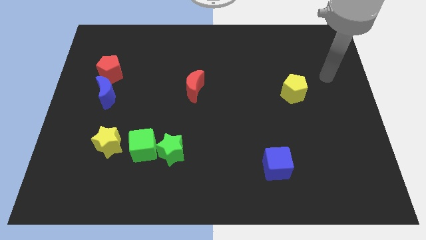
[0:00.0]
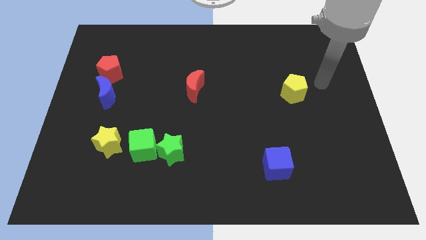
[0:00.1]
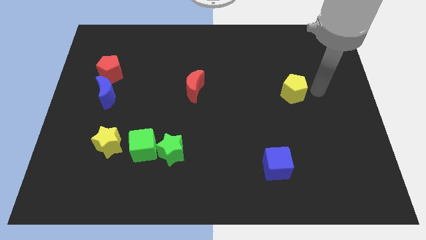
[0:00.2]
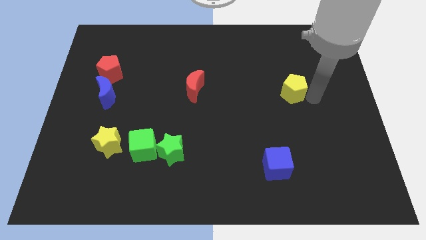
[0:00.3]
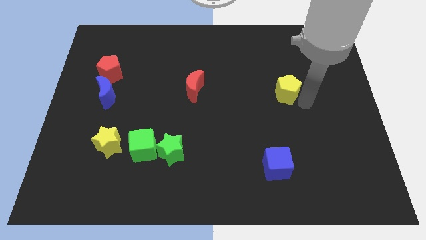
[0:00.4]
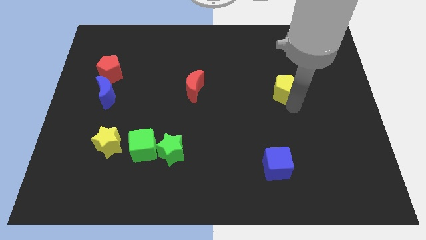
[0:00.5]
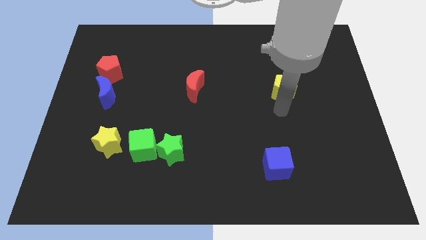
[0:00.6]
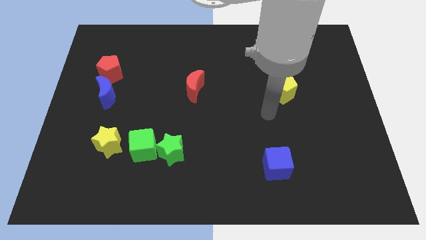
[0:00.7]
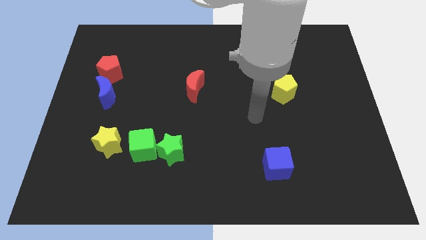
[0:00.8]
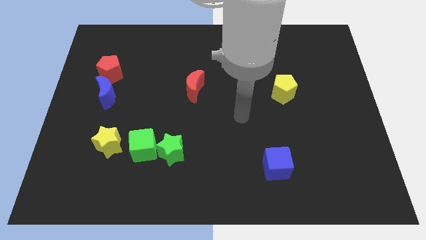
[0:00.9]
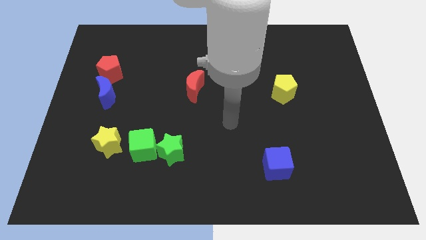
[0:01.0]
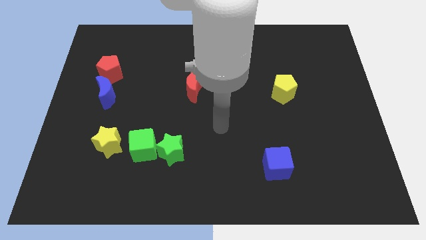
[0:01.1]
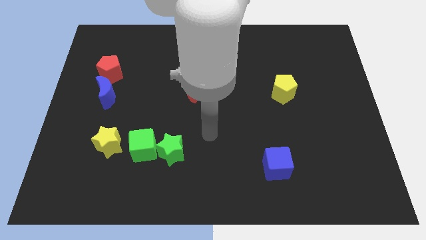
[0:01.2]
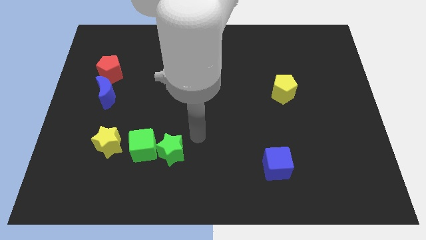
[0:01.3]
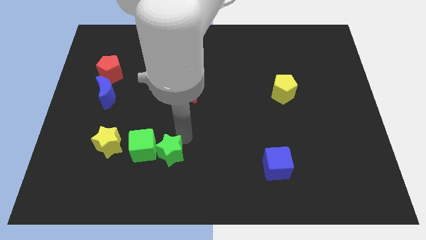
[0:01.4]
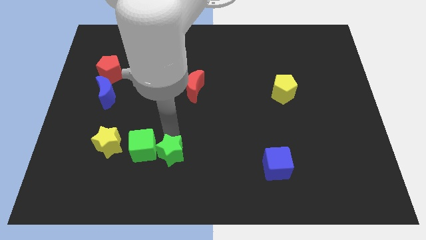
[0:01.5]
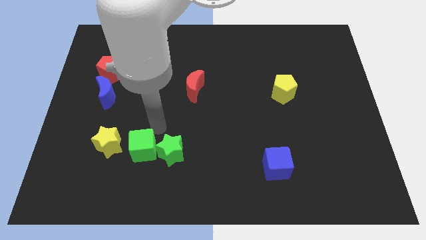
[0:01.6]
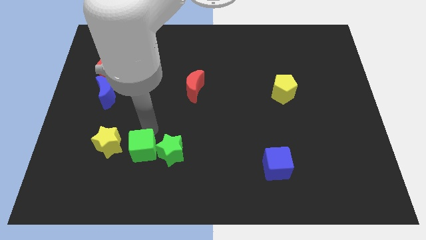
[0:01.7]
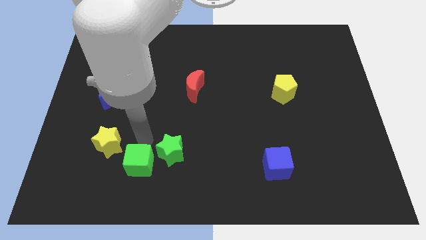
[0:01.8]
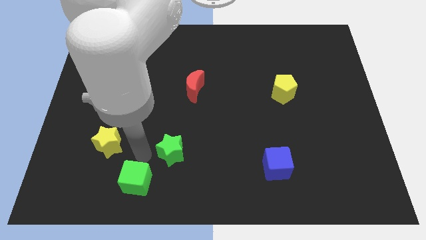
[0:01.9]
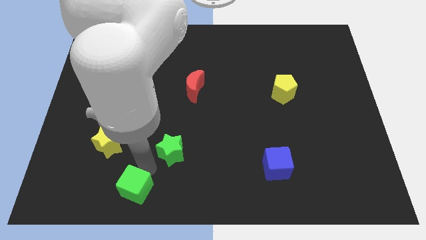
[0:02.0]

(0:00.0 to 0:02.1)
pull the green star apart from the green cube

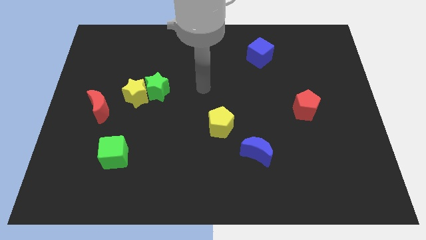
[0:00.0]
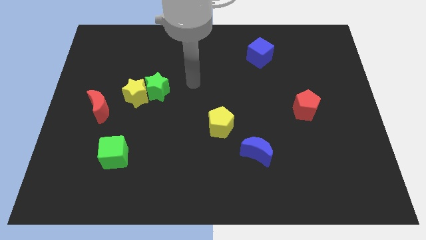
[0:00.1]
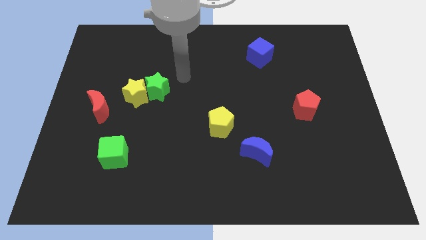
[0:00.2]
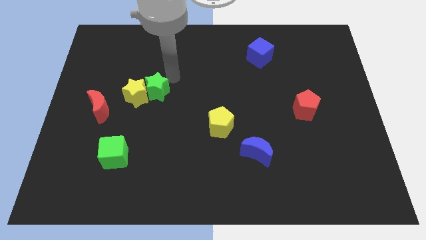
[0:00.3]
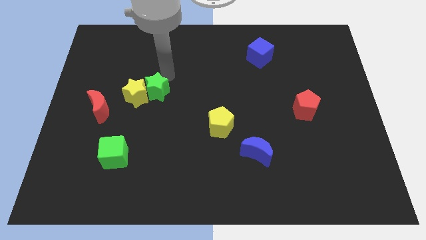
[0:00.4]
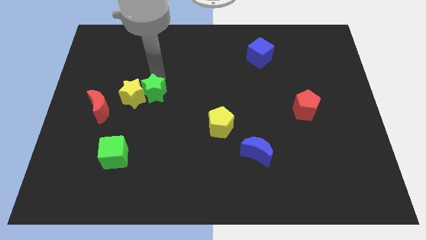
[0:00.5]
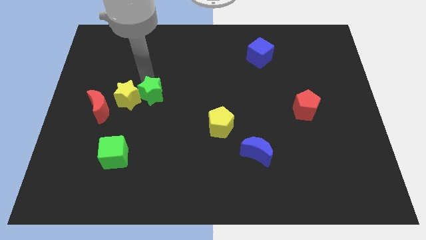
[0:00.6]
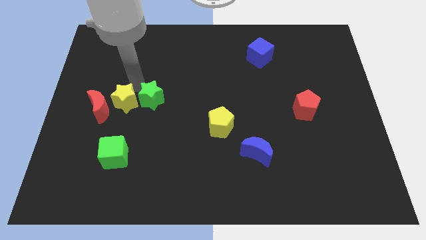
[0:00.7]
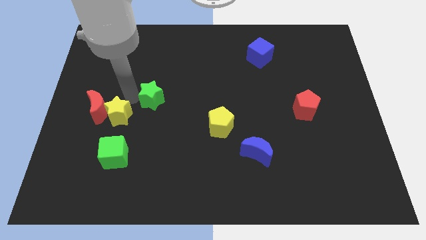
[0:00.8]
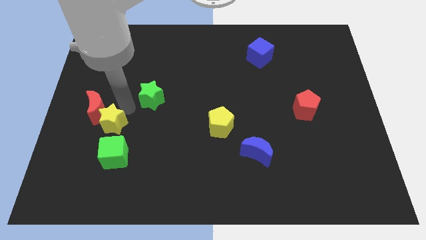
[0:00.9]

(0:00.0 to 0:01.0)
separate the green star from the yellow star

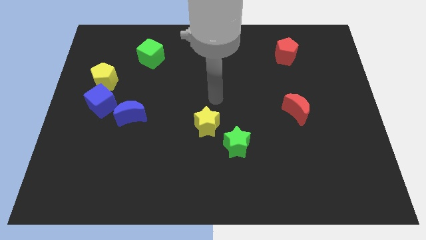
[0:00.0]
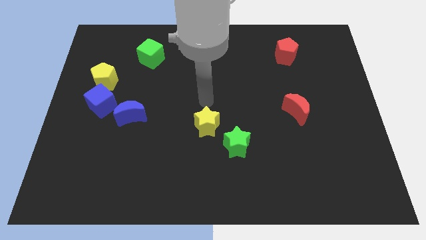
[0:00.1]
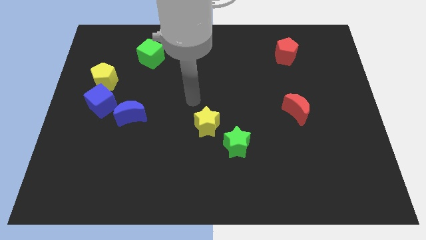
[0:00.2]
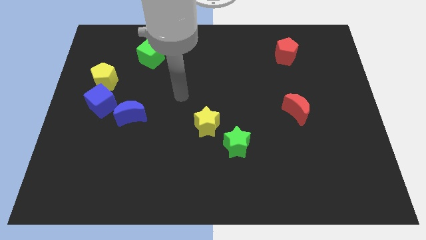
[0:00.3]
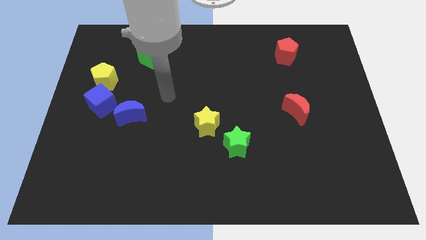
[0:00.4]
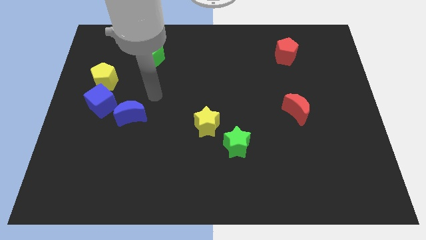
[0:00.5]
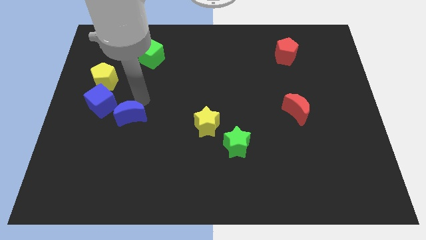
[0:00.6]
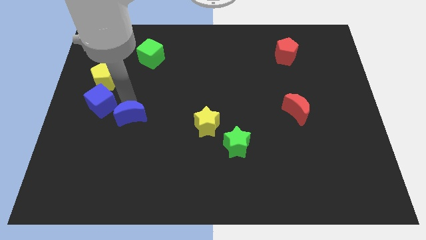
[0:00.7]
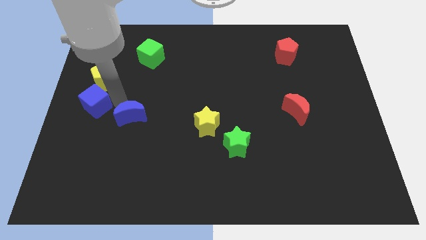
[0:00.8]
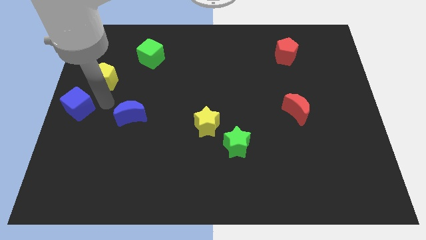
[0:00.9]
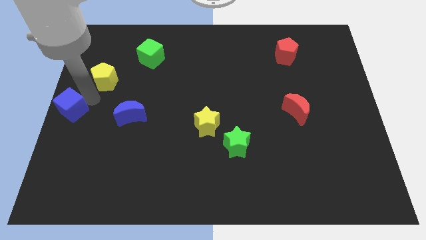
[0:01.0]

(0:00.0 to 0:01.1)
move the yellow pentagon away from the blue cube

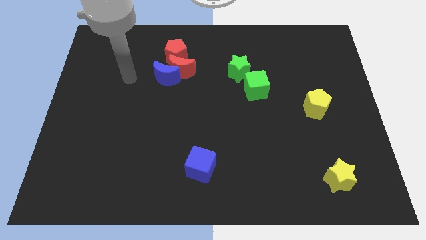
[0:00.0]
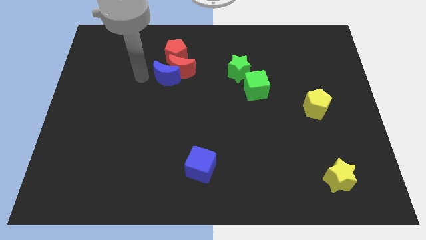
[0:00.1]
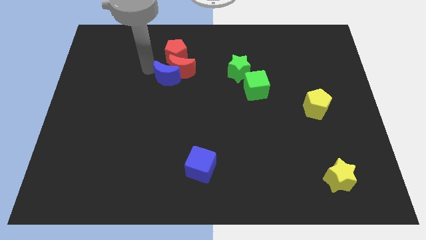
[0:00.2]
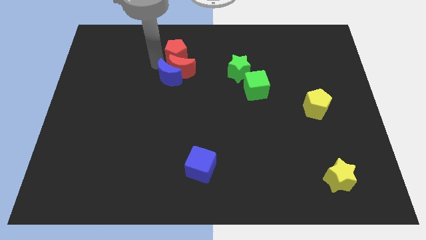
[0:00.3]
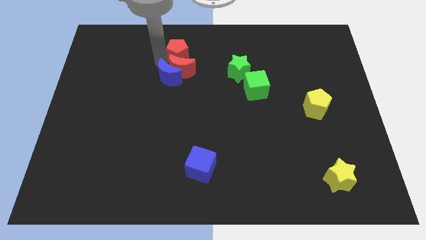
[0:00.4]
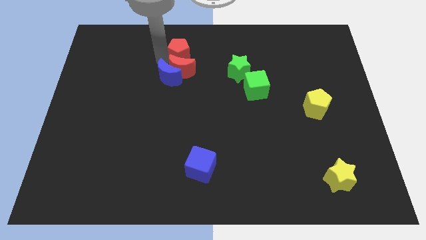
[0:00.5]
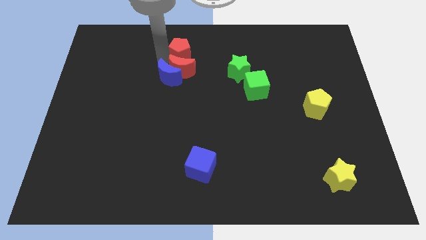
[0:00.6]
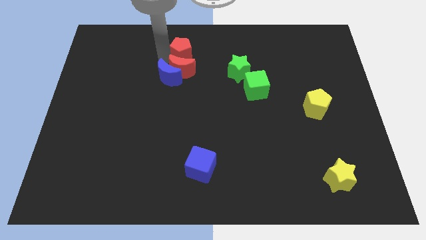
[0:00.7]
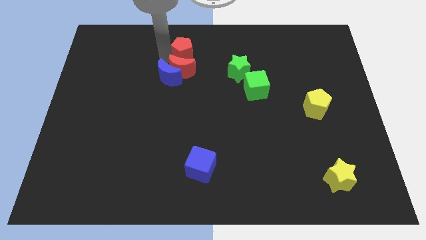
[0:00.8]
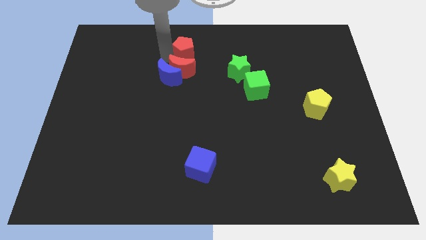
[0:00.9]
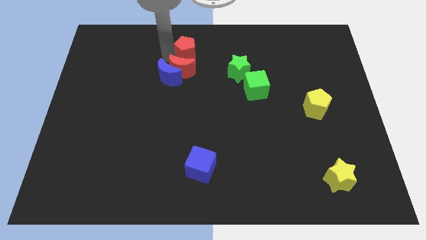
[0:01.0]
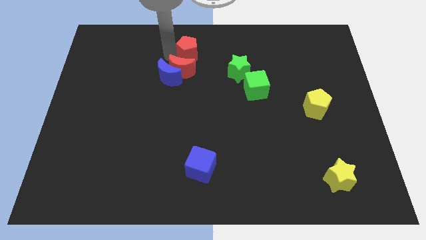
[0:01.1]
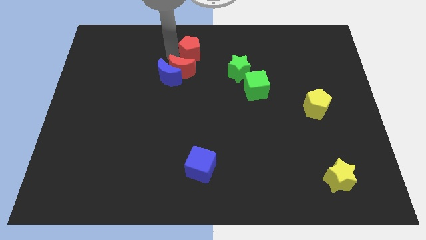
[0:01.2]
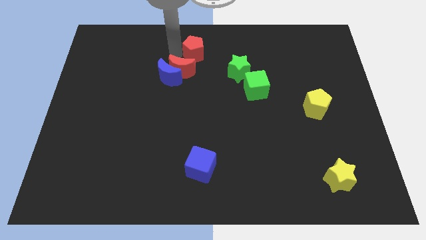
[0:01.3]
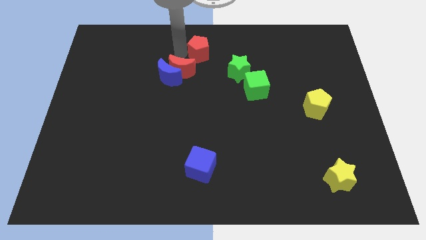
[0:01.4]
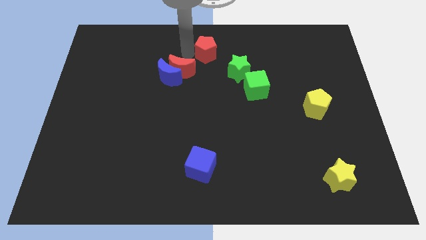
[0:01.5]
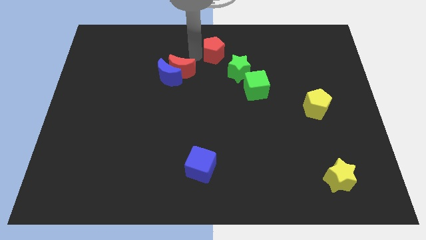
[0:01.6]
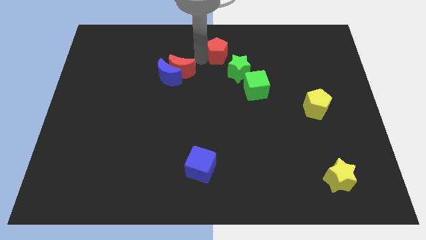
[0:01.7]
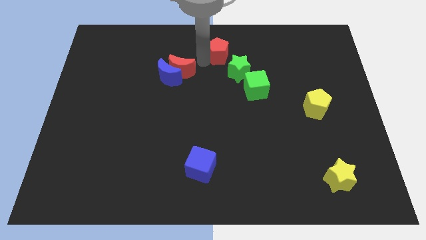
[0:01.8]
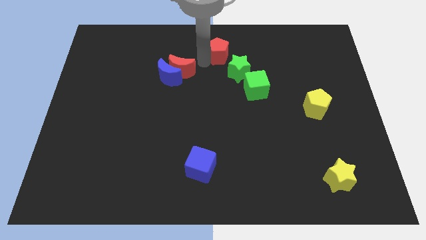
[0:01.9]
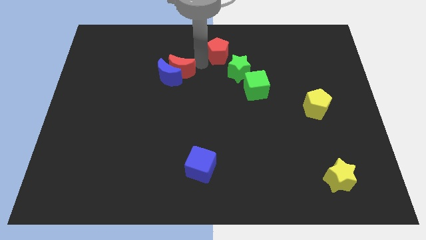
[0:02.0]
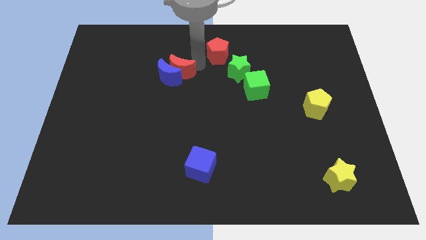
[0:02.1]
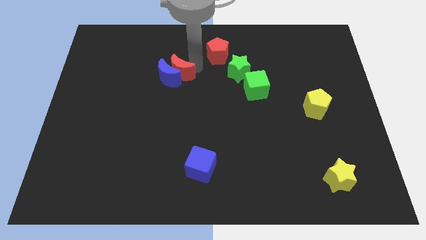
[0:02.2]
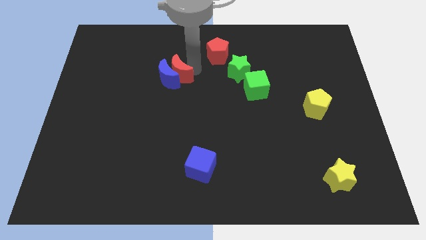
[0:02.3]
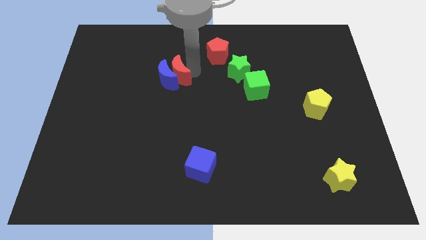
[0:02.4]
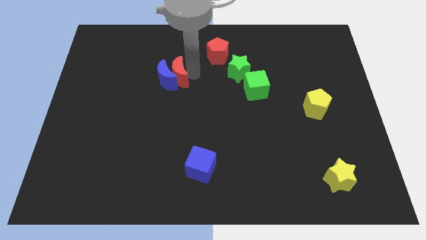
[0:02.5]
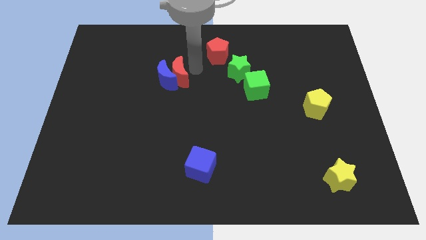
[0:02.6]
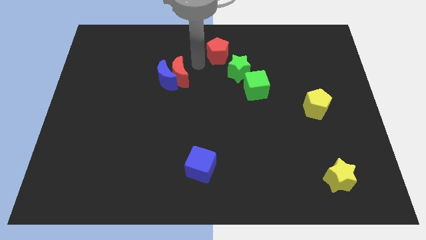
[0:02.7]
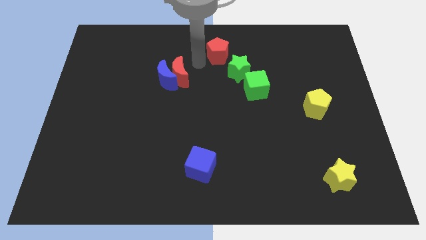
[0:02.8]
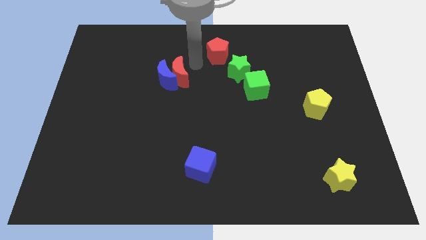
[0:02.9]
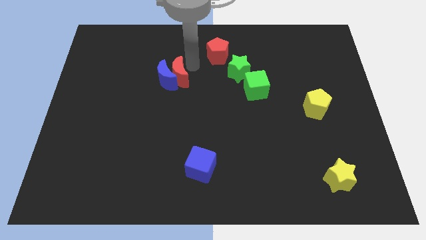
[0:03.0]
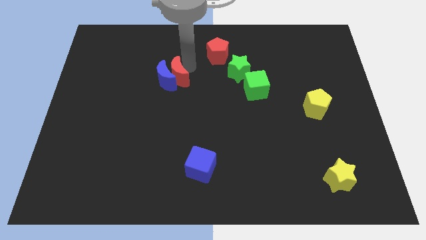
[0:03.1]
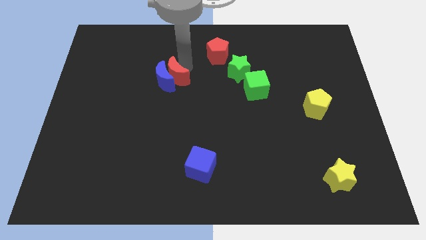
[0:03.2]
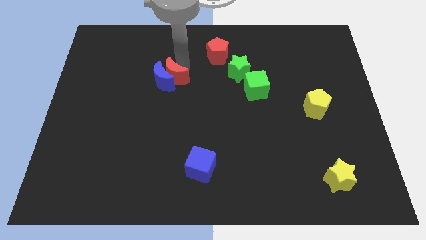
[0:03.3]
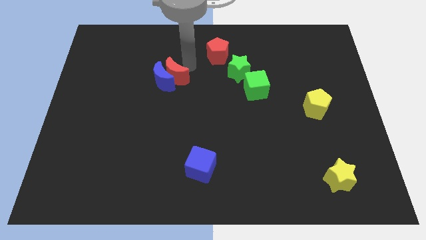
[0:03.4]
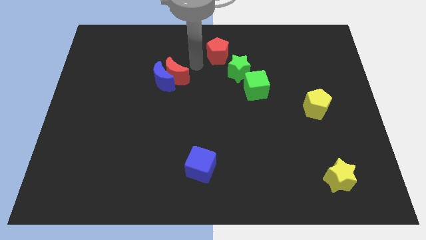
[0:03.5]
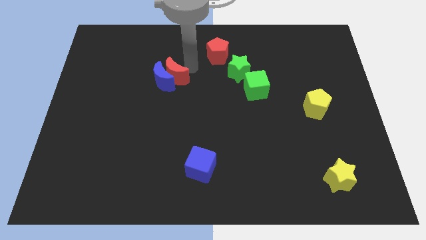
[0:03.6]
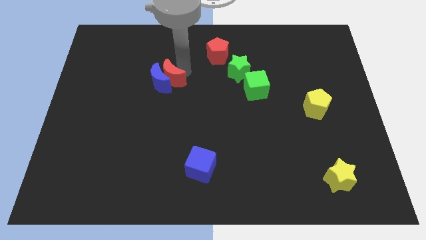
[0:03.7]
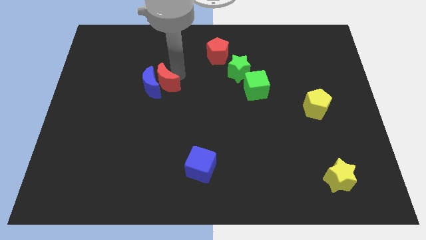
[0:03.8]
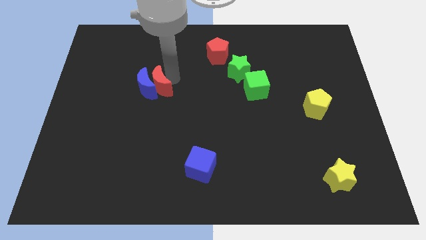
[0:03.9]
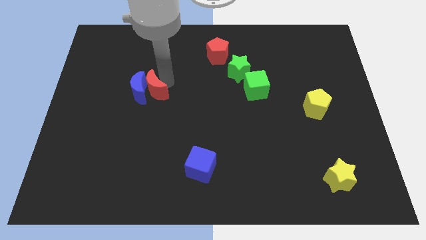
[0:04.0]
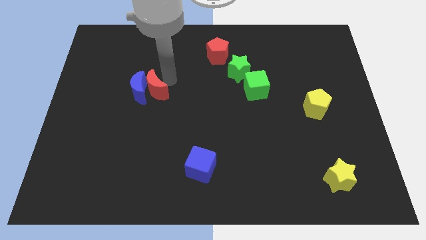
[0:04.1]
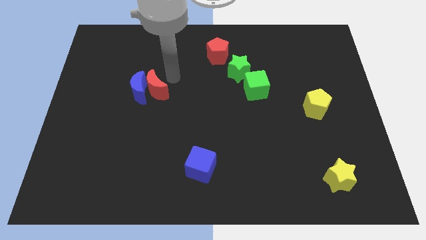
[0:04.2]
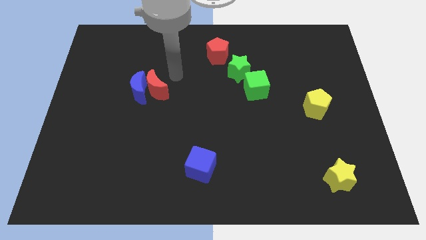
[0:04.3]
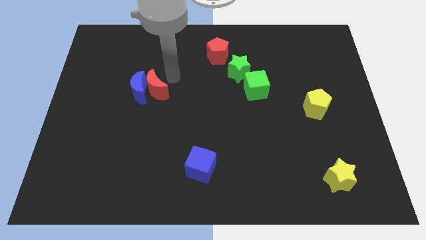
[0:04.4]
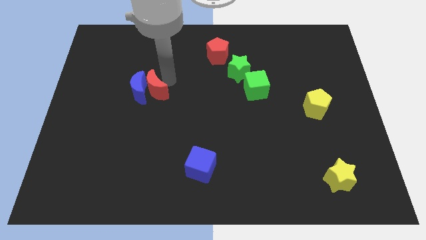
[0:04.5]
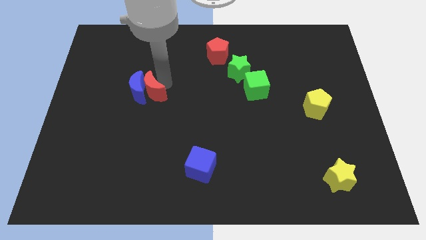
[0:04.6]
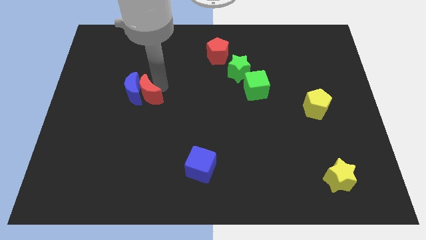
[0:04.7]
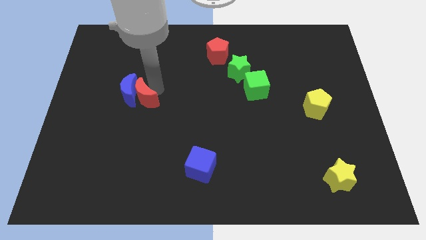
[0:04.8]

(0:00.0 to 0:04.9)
separate the red moon from the blue moon and red pentagon

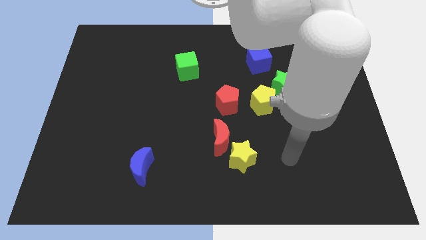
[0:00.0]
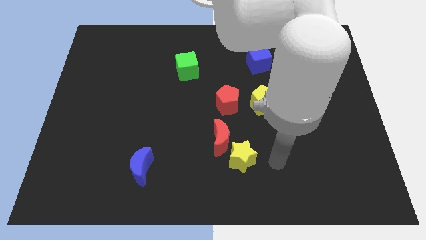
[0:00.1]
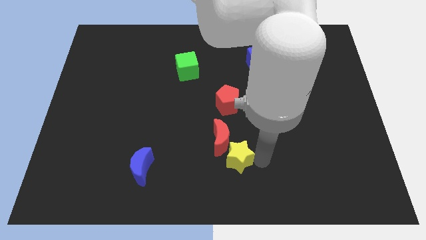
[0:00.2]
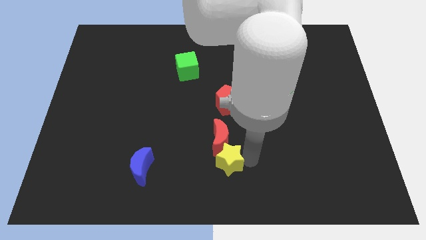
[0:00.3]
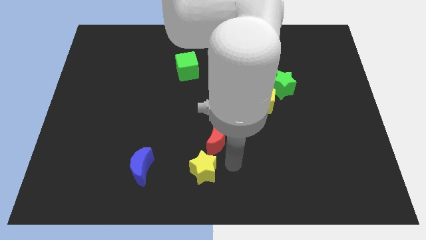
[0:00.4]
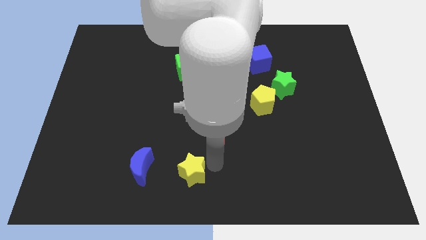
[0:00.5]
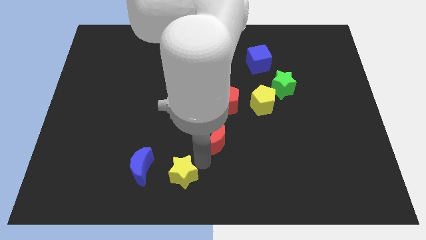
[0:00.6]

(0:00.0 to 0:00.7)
move the red moon away from the yellow star
